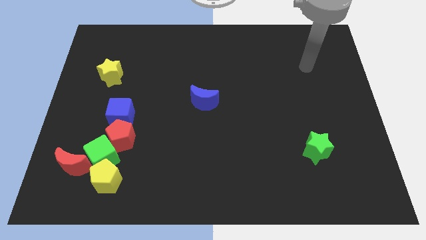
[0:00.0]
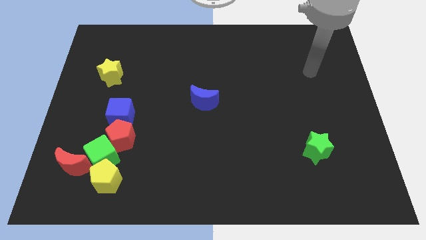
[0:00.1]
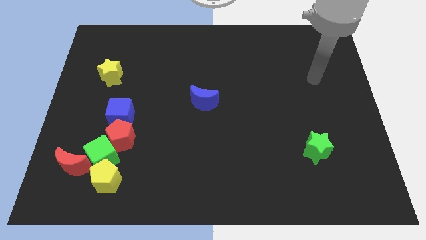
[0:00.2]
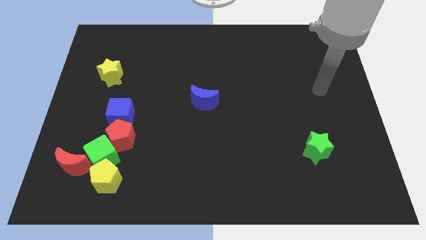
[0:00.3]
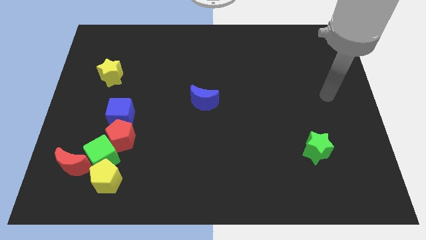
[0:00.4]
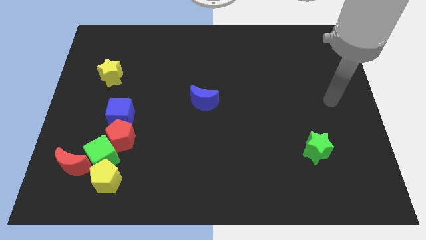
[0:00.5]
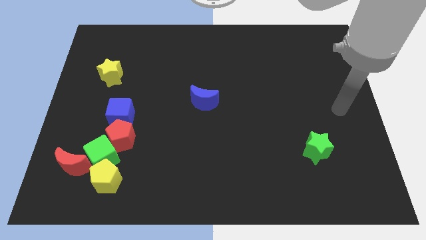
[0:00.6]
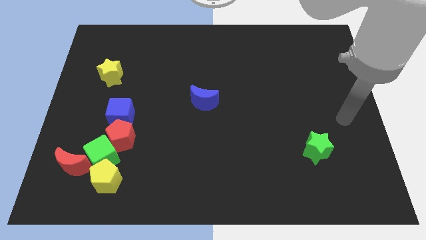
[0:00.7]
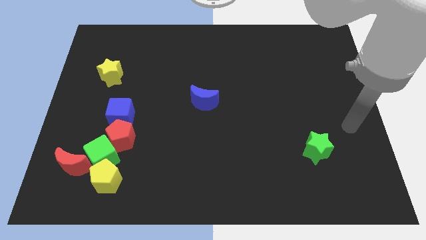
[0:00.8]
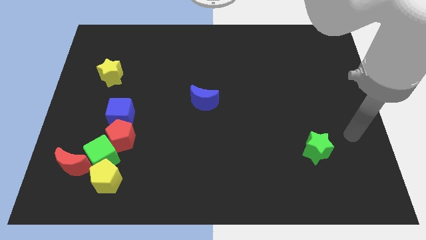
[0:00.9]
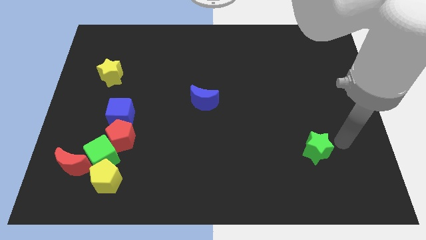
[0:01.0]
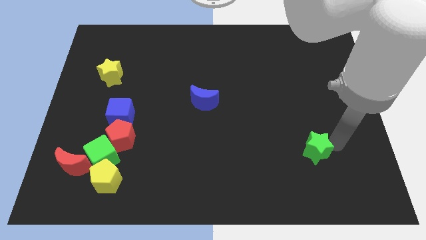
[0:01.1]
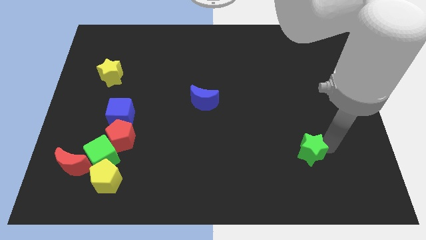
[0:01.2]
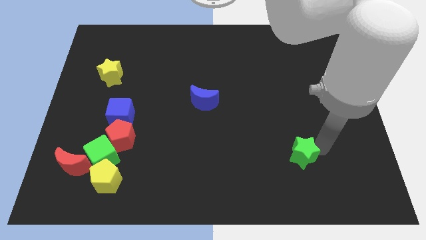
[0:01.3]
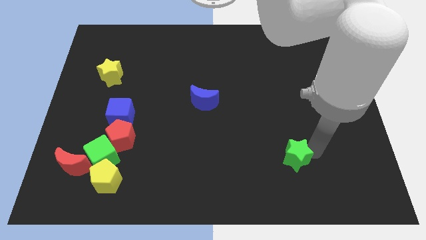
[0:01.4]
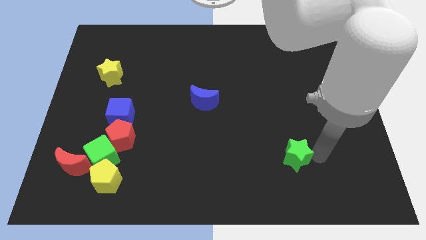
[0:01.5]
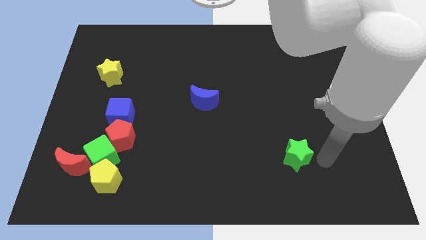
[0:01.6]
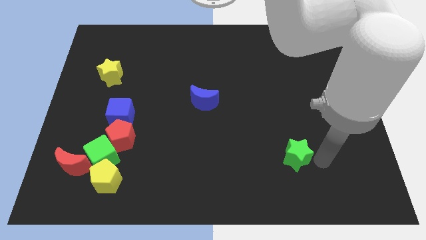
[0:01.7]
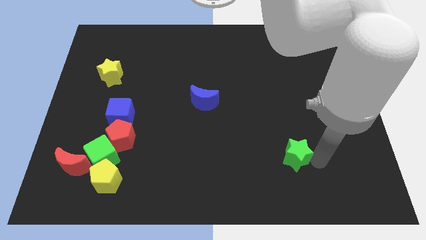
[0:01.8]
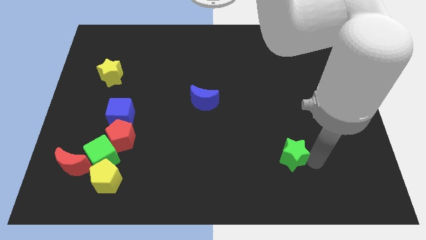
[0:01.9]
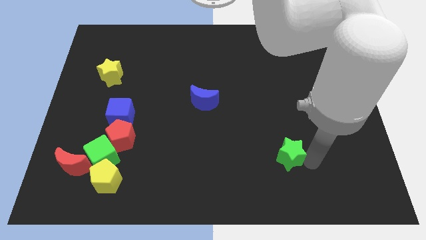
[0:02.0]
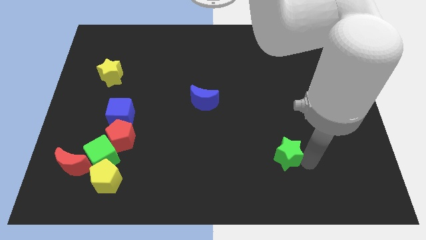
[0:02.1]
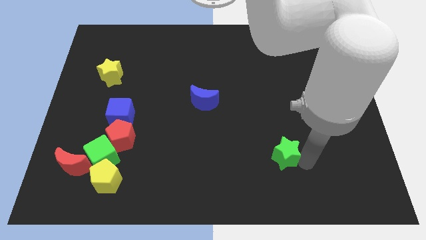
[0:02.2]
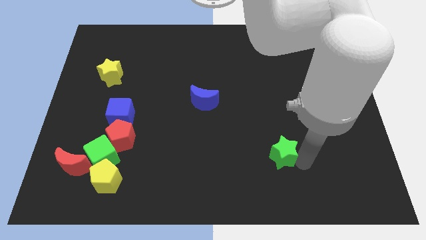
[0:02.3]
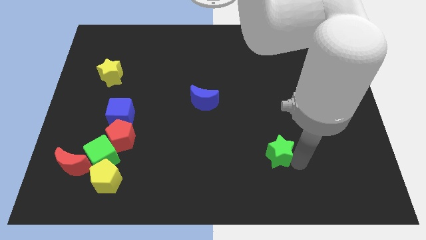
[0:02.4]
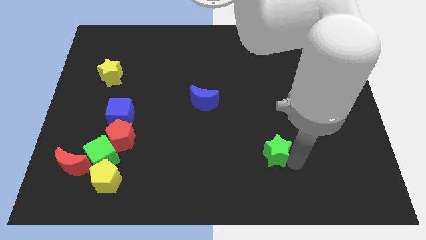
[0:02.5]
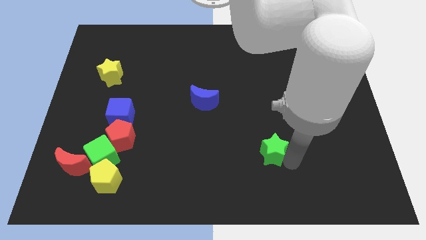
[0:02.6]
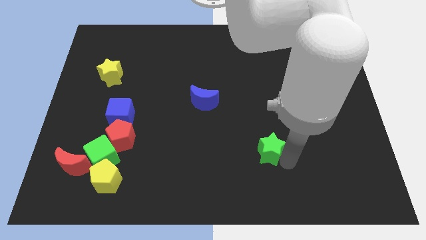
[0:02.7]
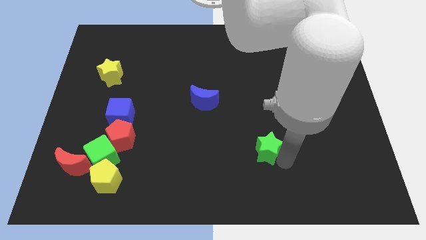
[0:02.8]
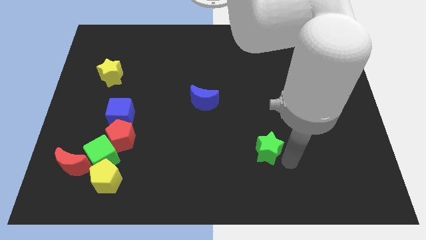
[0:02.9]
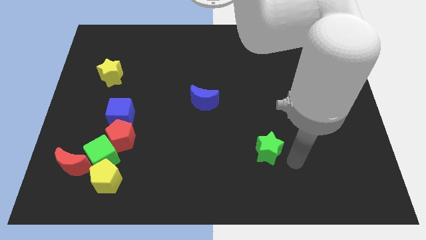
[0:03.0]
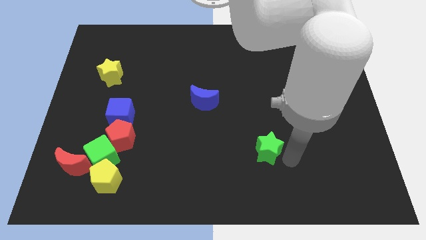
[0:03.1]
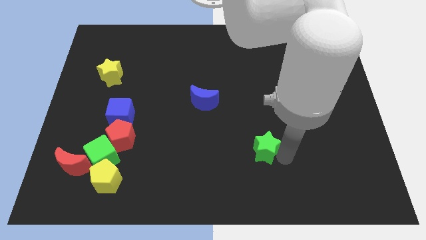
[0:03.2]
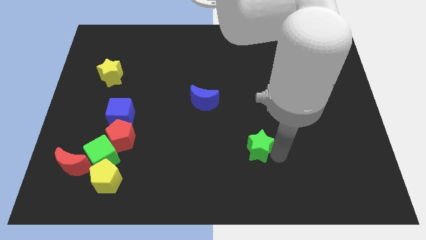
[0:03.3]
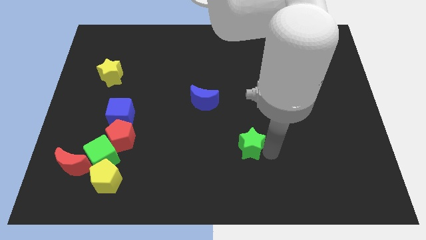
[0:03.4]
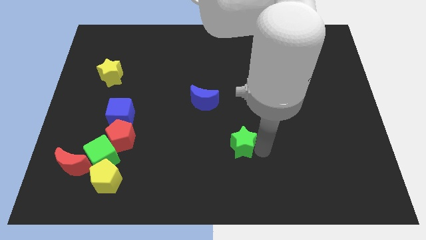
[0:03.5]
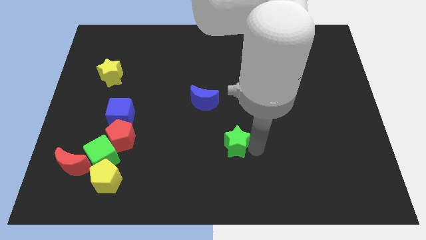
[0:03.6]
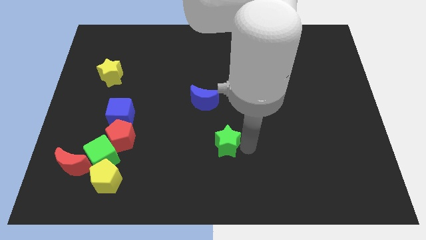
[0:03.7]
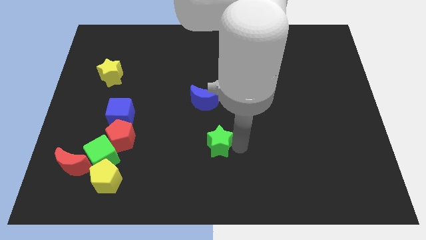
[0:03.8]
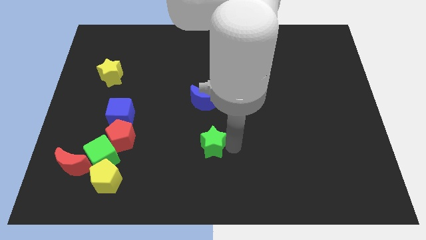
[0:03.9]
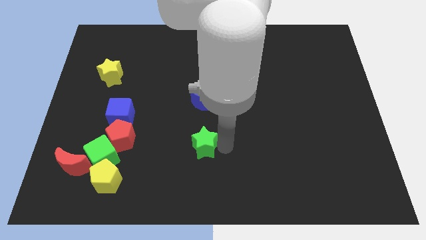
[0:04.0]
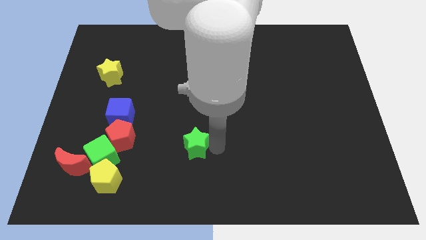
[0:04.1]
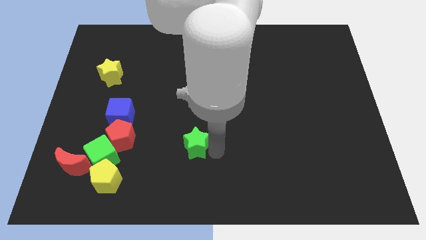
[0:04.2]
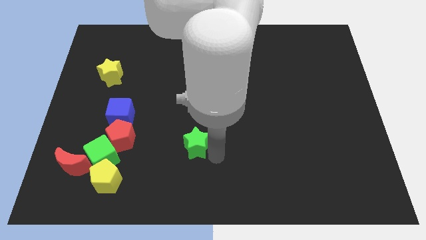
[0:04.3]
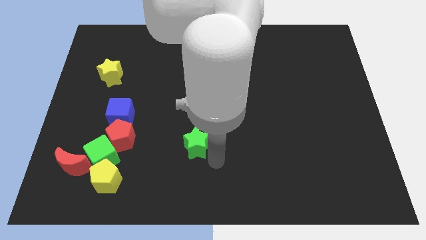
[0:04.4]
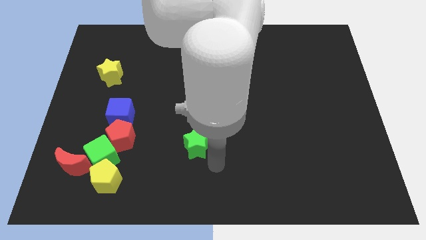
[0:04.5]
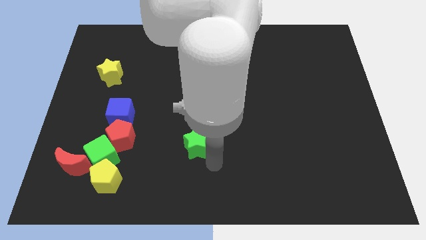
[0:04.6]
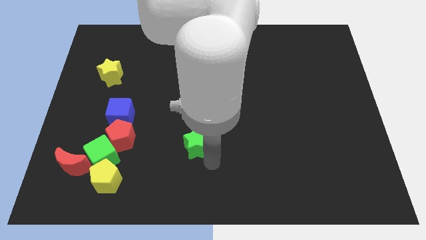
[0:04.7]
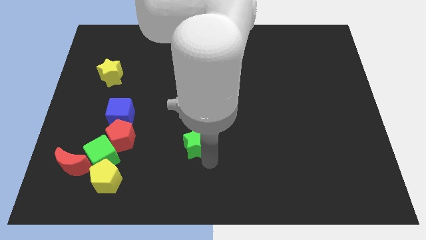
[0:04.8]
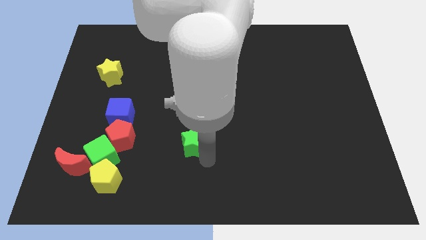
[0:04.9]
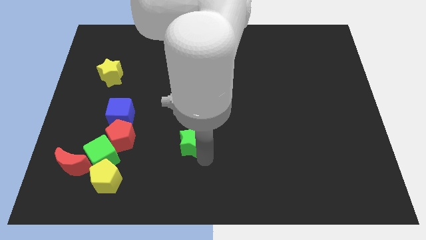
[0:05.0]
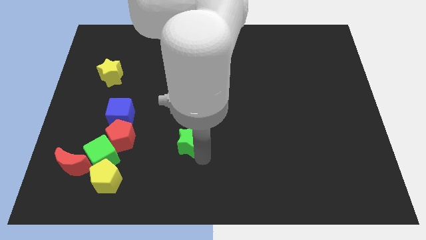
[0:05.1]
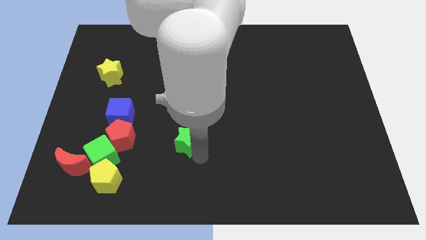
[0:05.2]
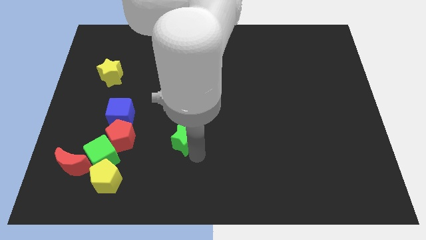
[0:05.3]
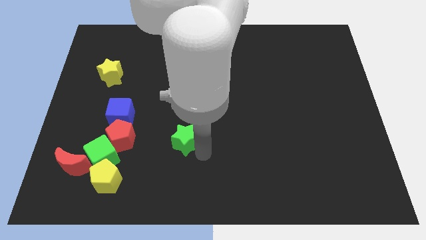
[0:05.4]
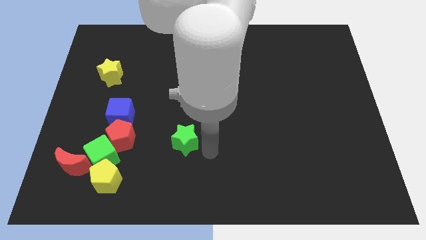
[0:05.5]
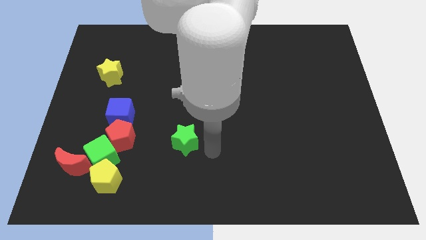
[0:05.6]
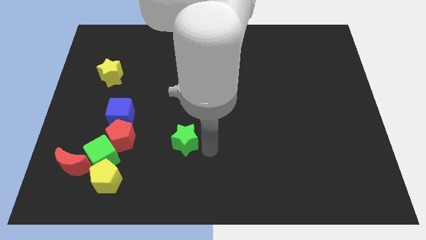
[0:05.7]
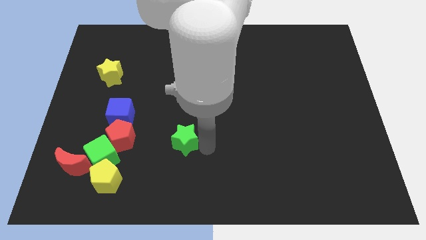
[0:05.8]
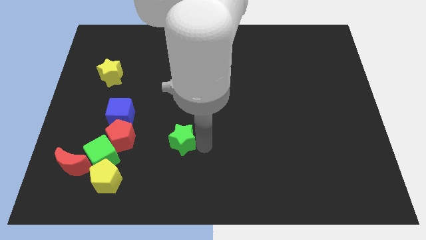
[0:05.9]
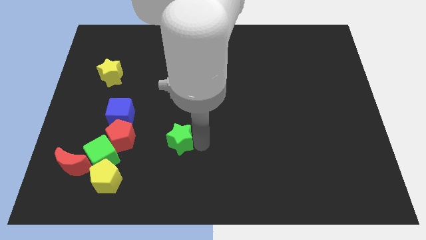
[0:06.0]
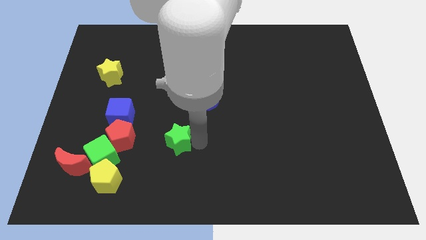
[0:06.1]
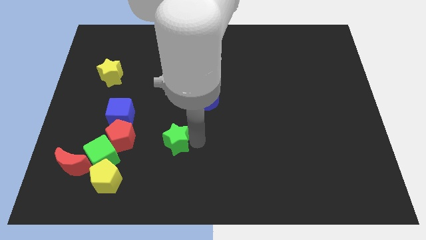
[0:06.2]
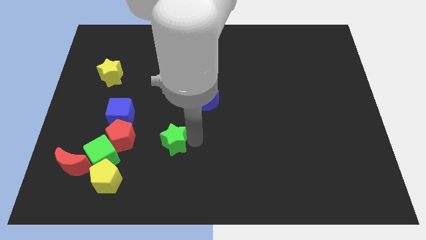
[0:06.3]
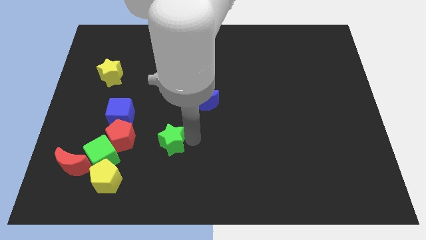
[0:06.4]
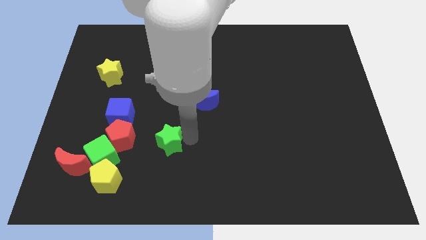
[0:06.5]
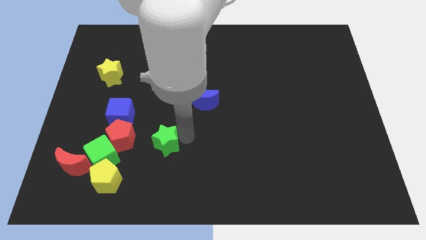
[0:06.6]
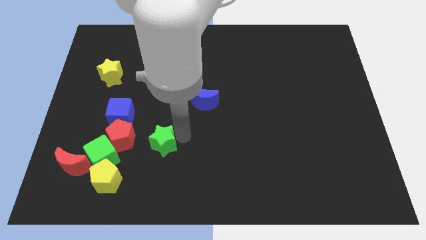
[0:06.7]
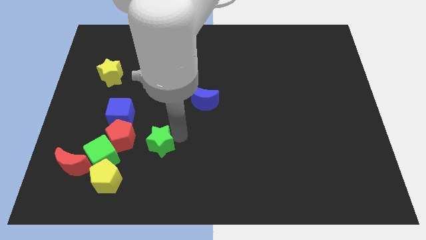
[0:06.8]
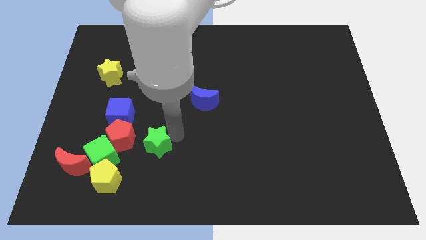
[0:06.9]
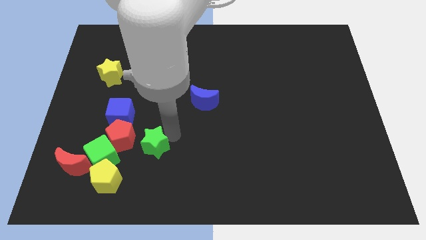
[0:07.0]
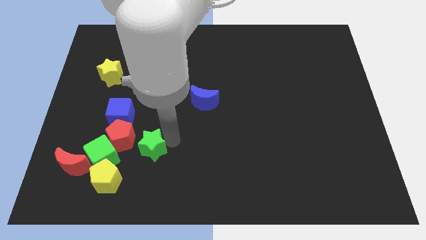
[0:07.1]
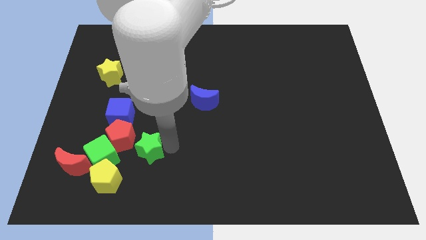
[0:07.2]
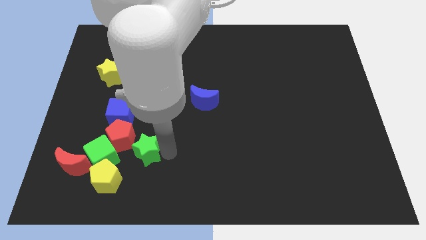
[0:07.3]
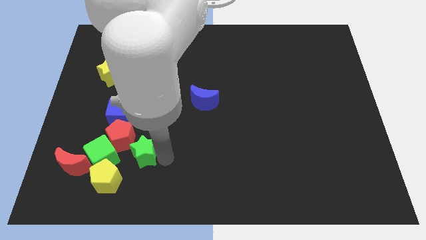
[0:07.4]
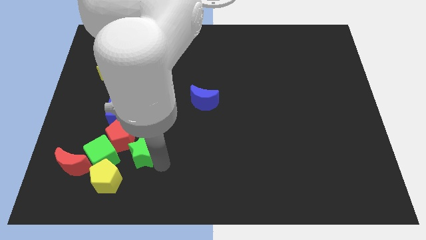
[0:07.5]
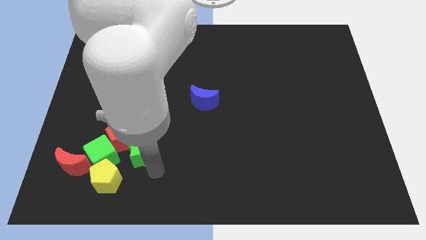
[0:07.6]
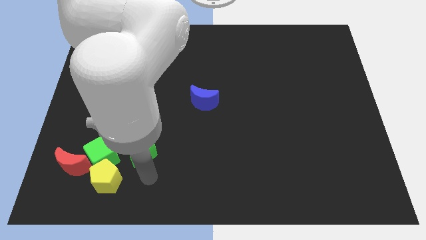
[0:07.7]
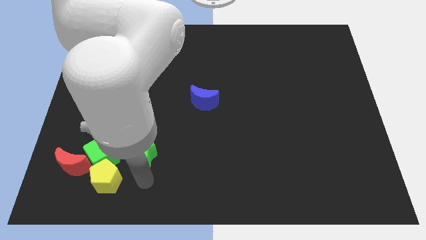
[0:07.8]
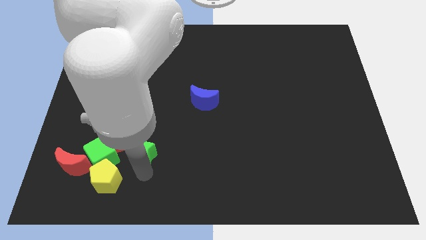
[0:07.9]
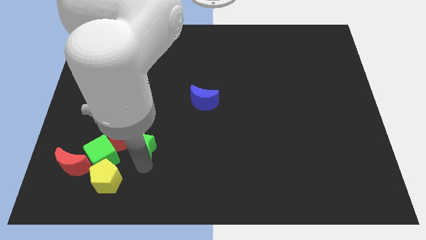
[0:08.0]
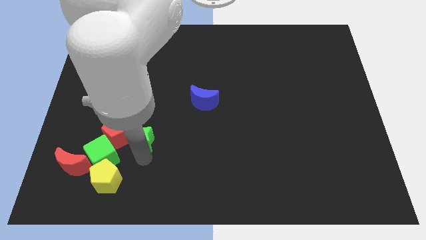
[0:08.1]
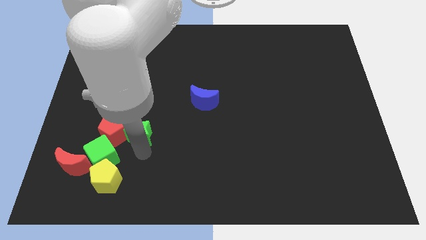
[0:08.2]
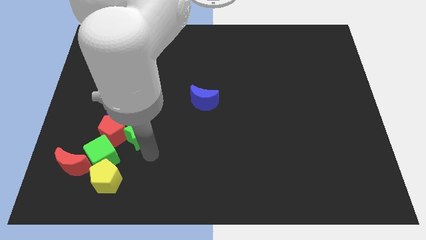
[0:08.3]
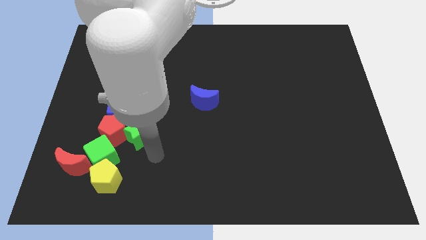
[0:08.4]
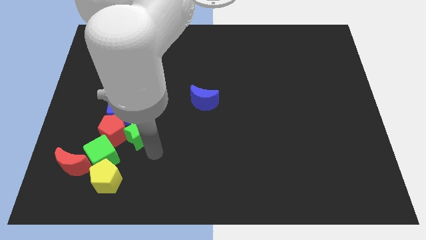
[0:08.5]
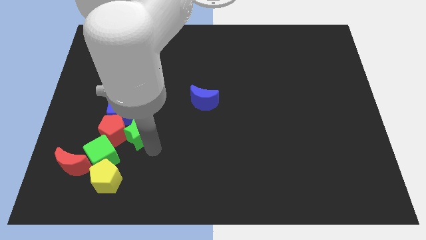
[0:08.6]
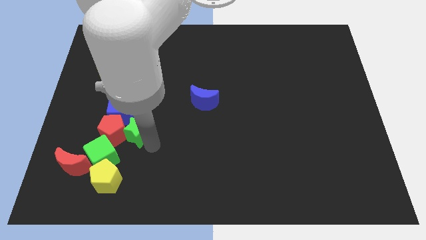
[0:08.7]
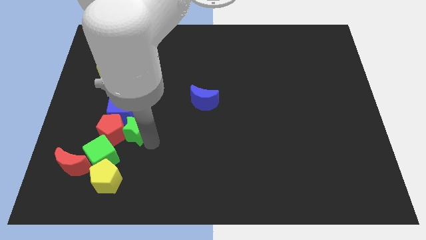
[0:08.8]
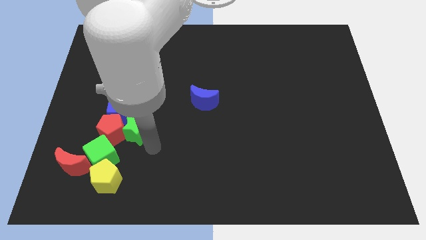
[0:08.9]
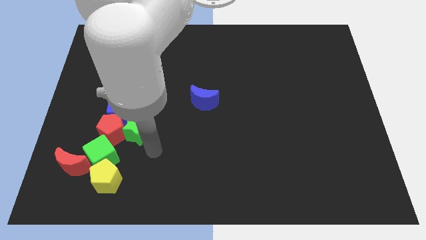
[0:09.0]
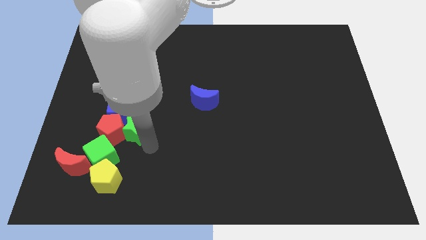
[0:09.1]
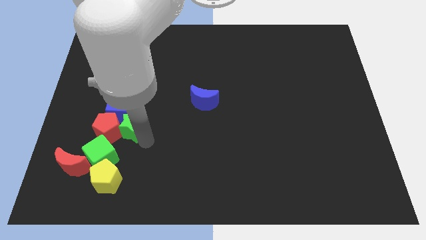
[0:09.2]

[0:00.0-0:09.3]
push the green star next to the blue cube
